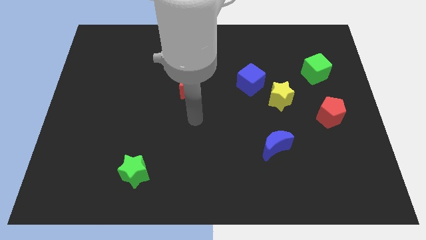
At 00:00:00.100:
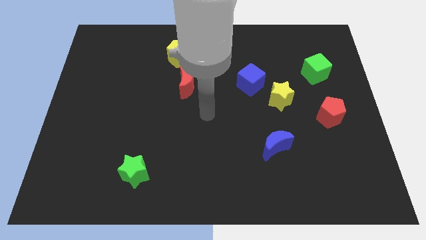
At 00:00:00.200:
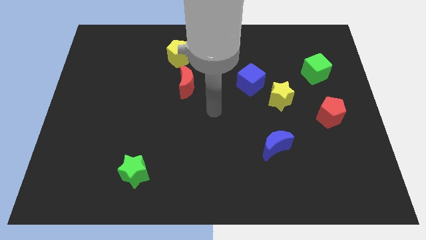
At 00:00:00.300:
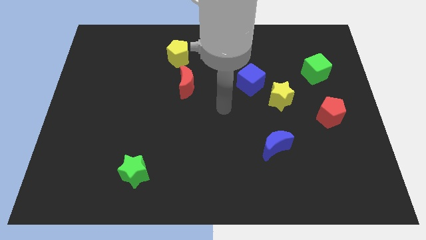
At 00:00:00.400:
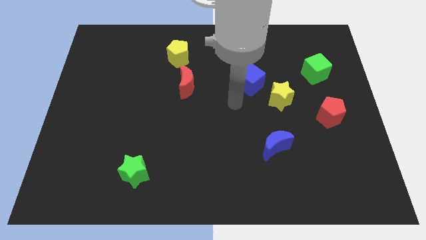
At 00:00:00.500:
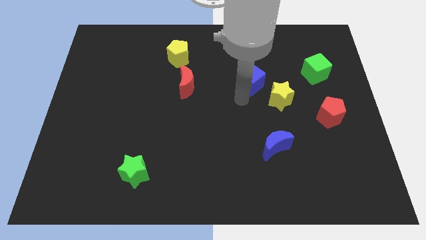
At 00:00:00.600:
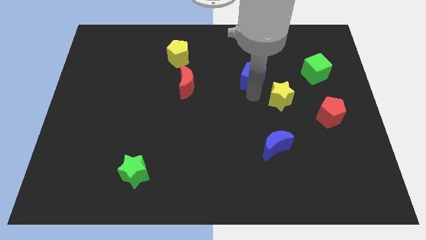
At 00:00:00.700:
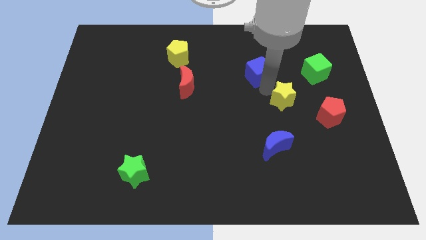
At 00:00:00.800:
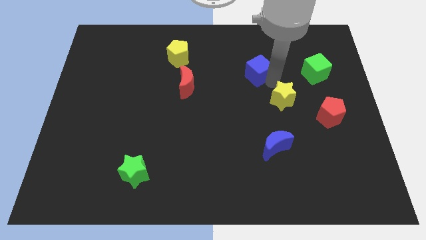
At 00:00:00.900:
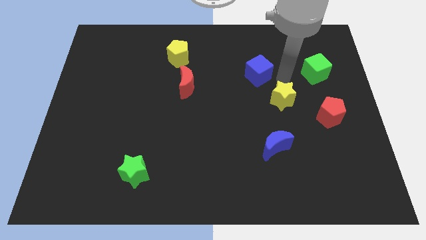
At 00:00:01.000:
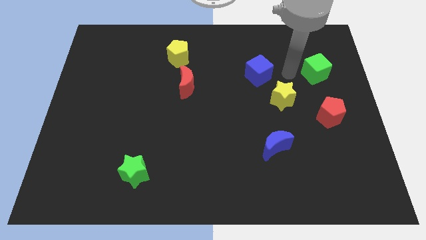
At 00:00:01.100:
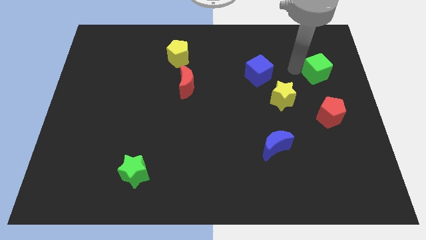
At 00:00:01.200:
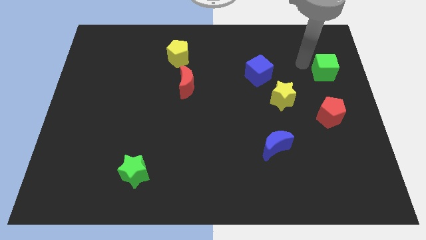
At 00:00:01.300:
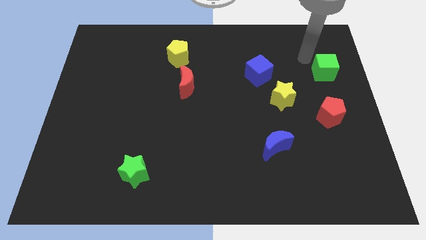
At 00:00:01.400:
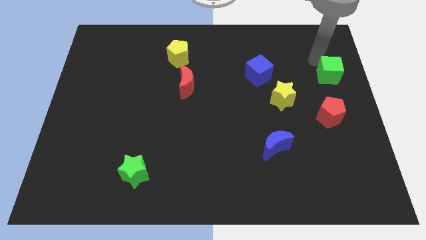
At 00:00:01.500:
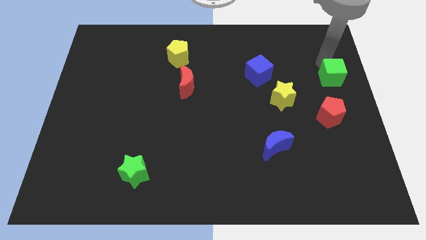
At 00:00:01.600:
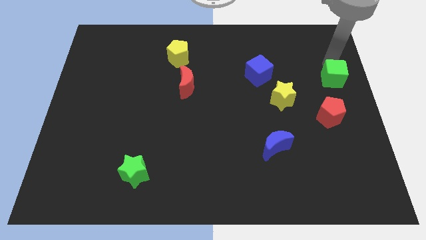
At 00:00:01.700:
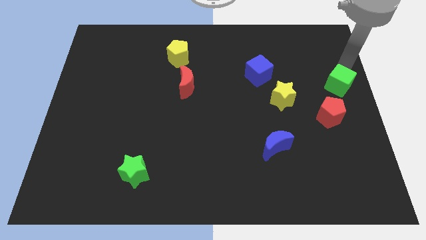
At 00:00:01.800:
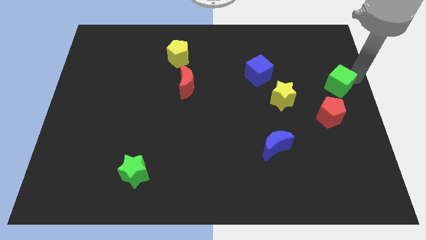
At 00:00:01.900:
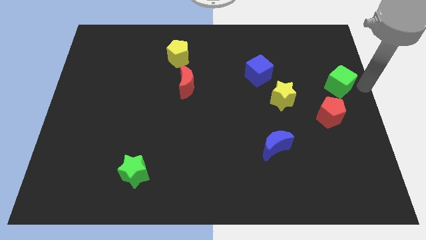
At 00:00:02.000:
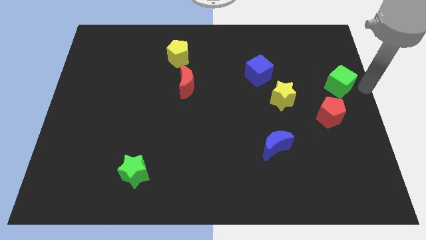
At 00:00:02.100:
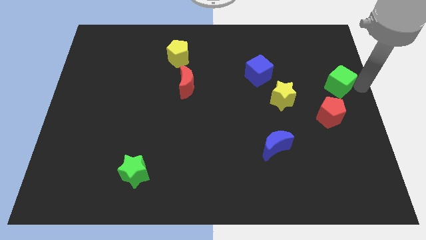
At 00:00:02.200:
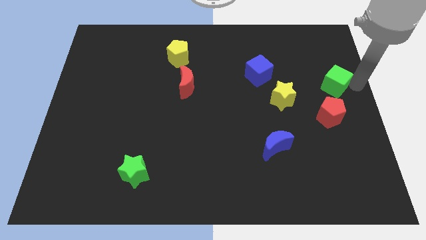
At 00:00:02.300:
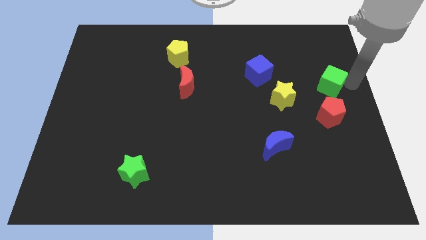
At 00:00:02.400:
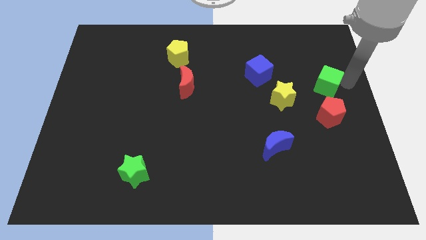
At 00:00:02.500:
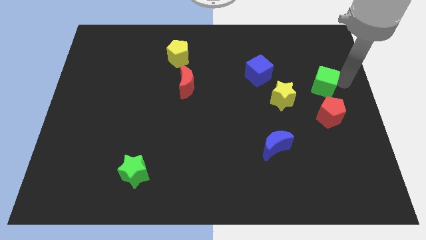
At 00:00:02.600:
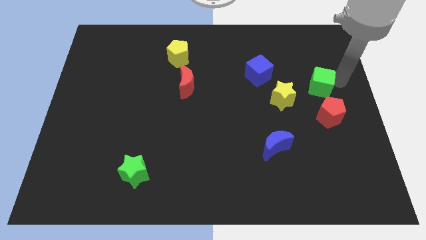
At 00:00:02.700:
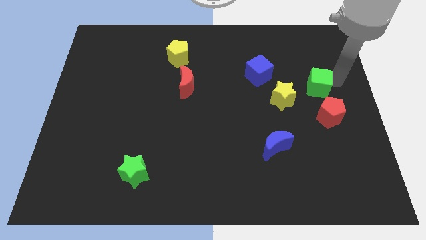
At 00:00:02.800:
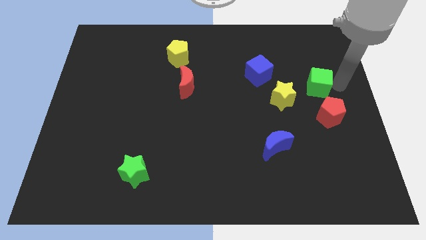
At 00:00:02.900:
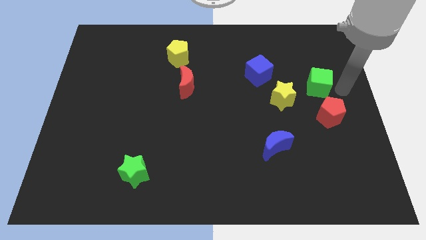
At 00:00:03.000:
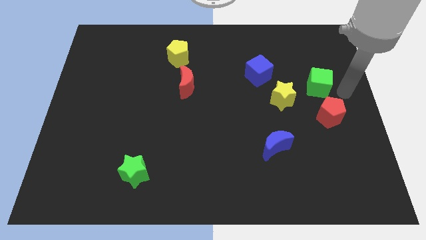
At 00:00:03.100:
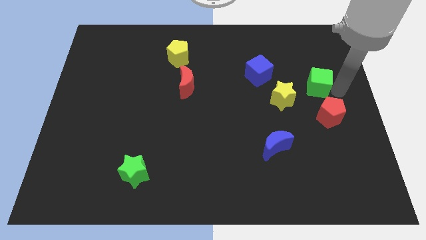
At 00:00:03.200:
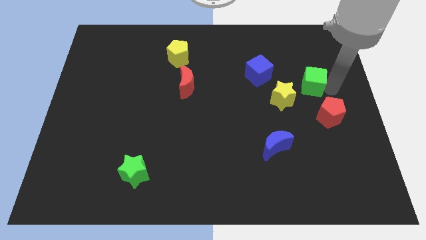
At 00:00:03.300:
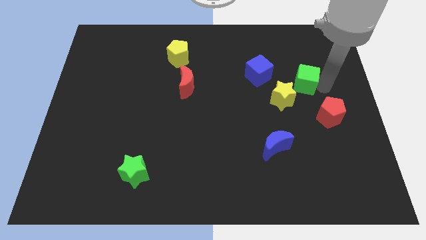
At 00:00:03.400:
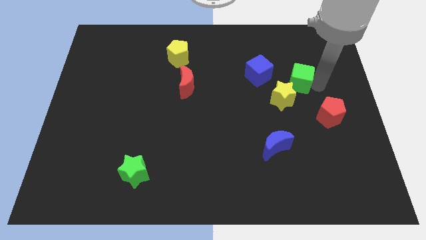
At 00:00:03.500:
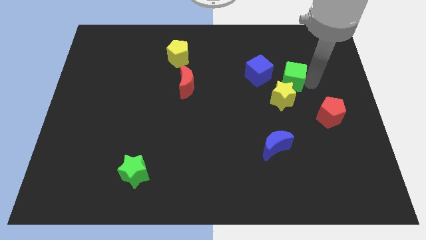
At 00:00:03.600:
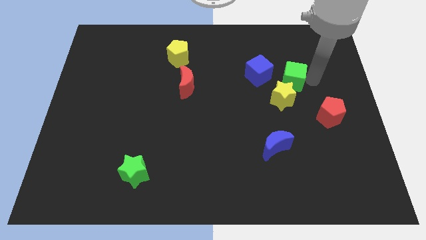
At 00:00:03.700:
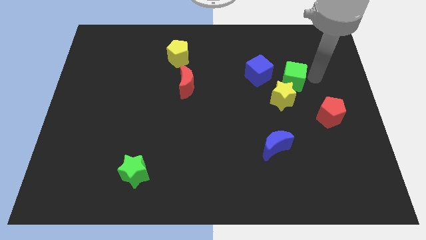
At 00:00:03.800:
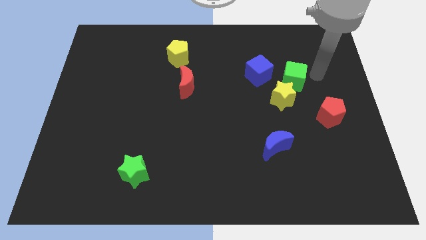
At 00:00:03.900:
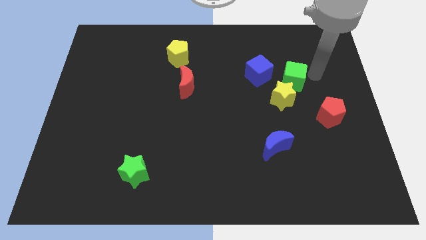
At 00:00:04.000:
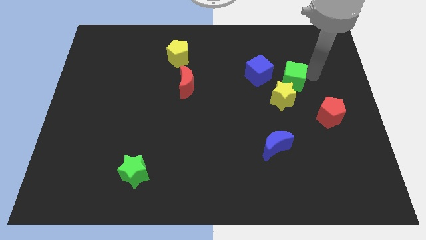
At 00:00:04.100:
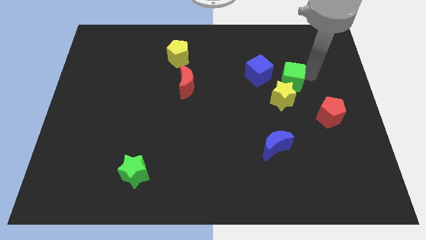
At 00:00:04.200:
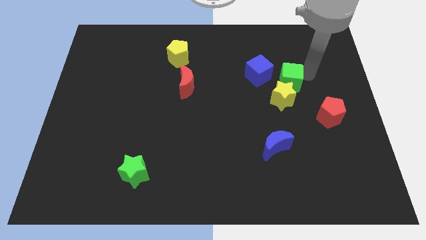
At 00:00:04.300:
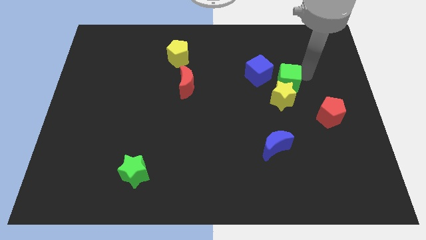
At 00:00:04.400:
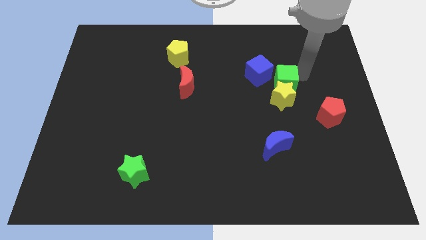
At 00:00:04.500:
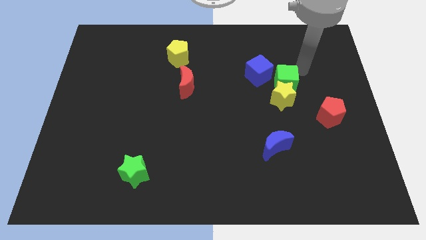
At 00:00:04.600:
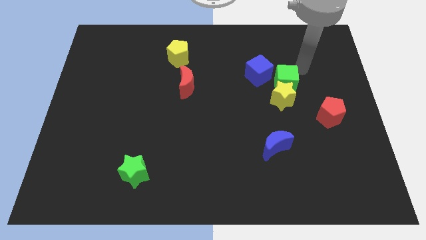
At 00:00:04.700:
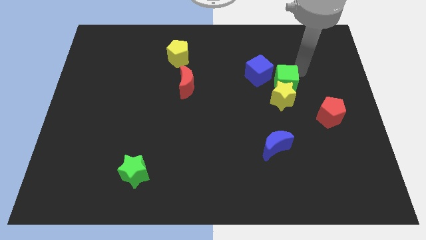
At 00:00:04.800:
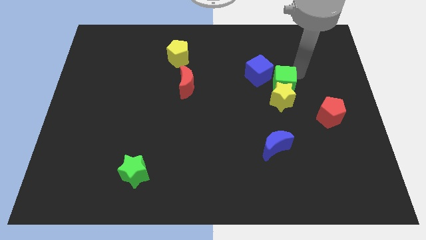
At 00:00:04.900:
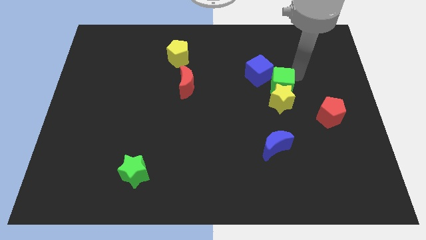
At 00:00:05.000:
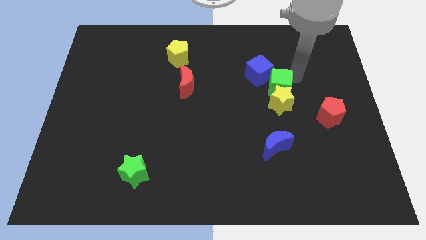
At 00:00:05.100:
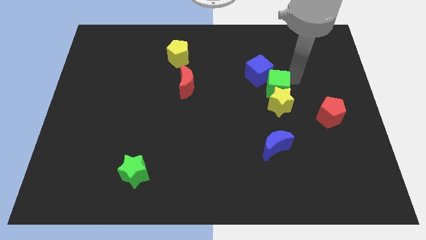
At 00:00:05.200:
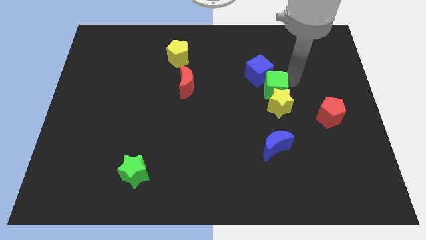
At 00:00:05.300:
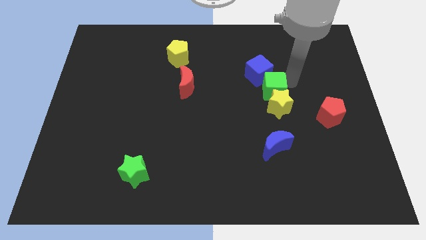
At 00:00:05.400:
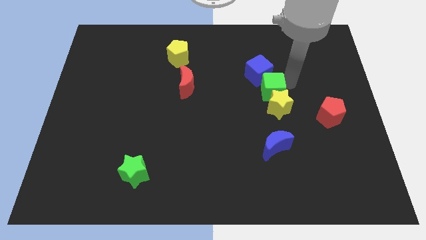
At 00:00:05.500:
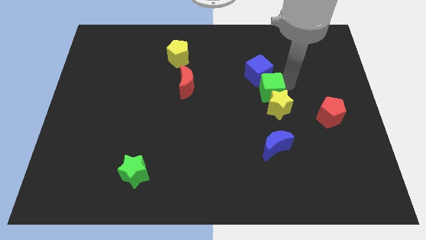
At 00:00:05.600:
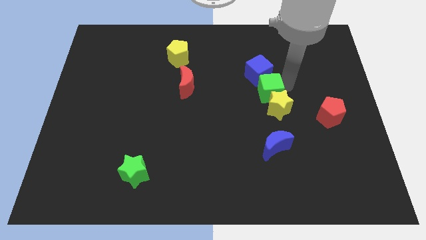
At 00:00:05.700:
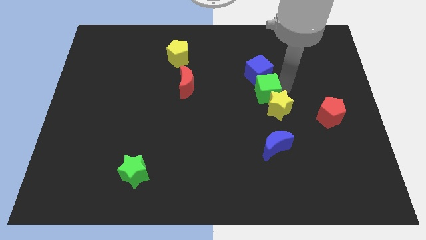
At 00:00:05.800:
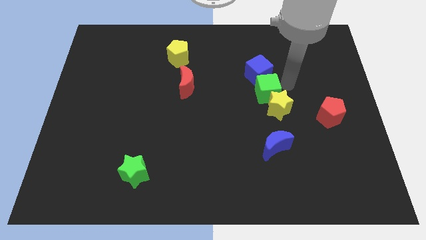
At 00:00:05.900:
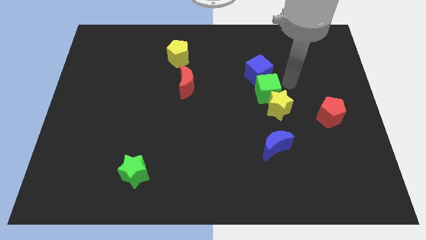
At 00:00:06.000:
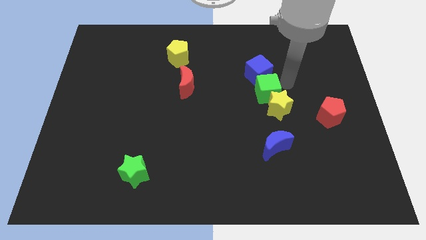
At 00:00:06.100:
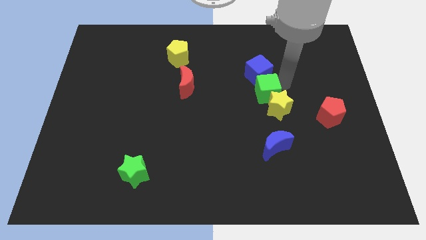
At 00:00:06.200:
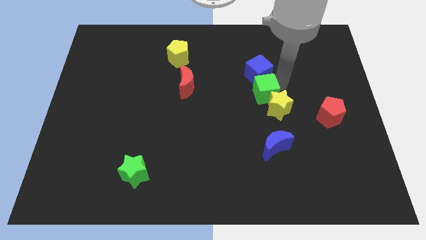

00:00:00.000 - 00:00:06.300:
move the green cube to the center of the board
